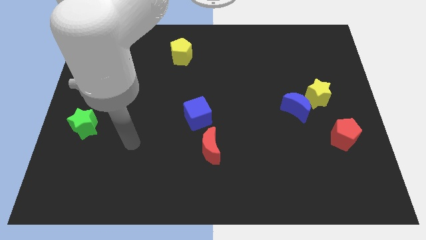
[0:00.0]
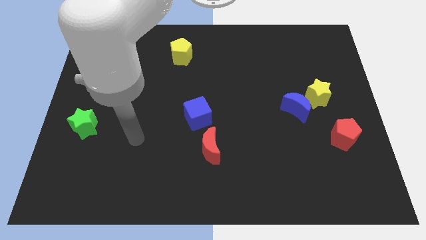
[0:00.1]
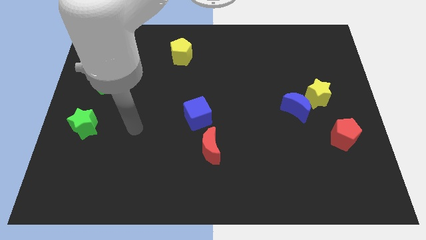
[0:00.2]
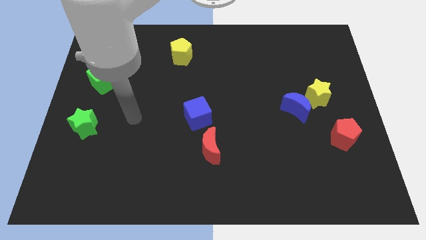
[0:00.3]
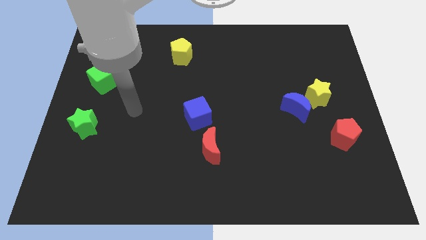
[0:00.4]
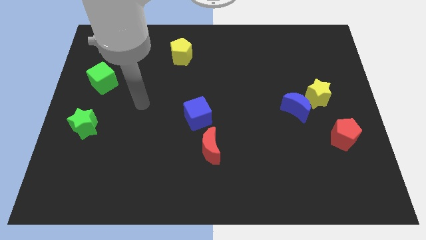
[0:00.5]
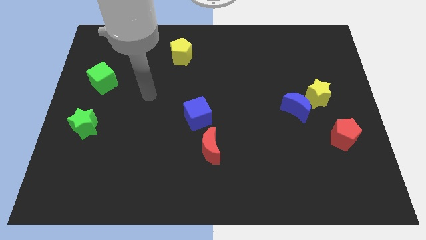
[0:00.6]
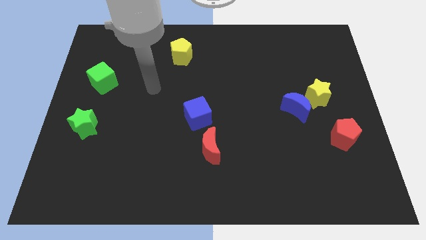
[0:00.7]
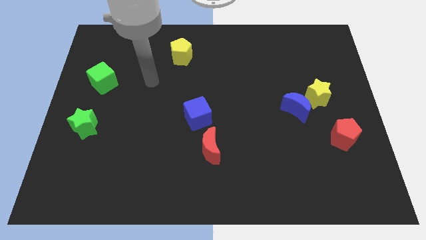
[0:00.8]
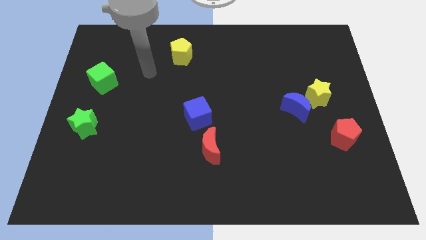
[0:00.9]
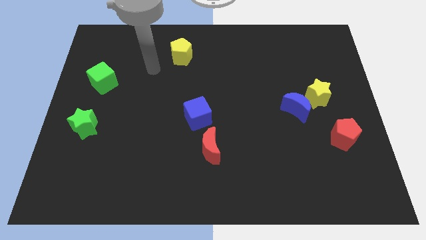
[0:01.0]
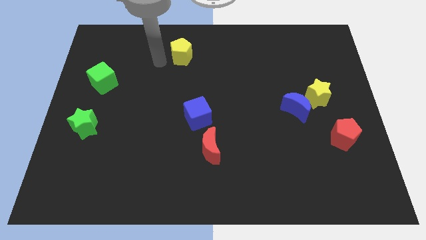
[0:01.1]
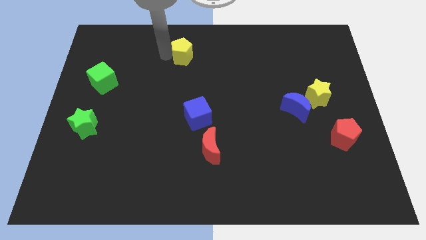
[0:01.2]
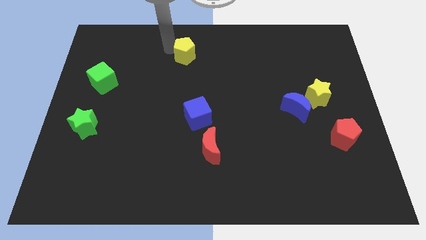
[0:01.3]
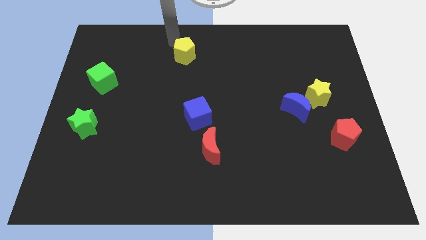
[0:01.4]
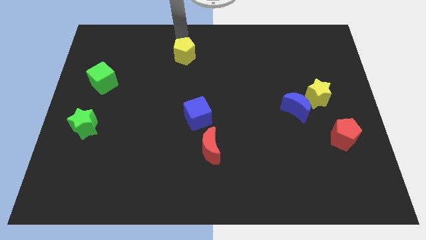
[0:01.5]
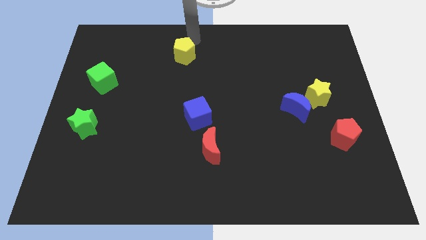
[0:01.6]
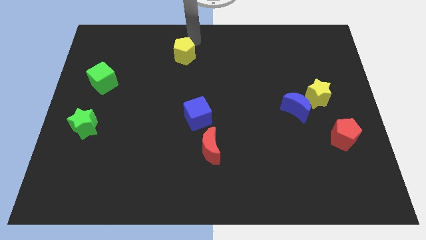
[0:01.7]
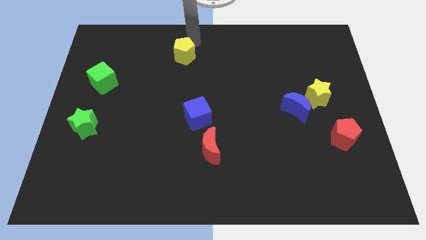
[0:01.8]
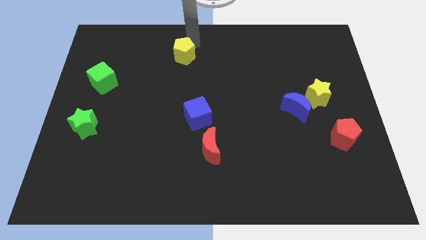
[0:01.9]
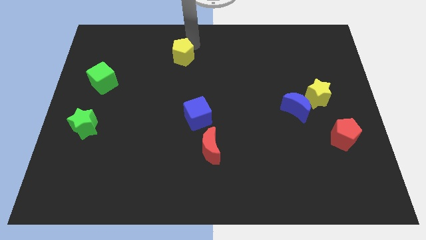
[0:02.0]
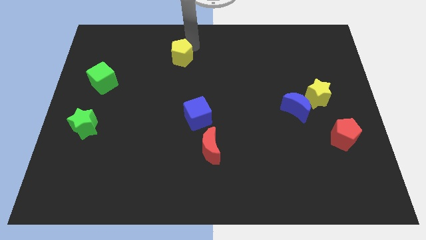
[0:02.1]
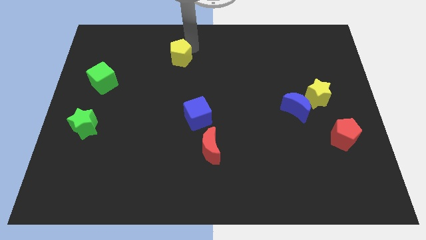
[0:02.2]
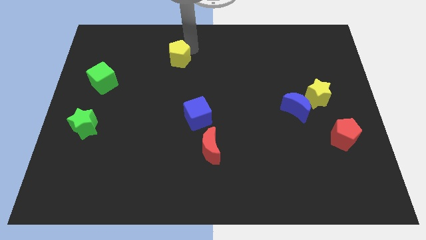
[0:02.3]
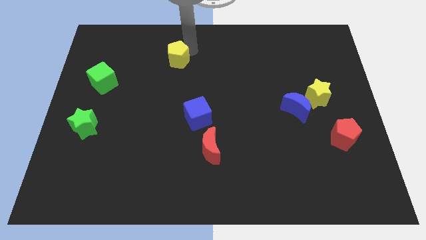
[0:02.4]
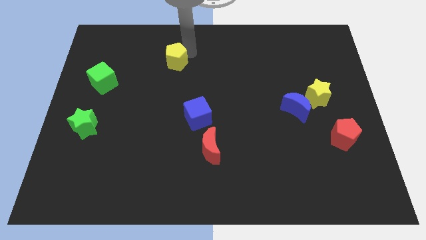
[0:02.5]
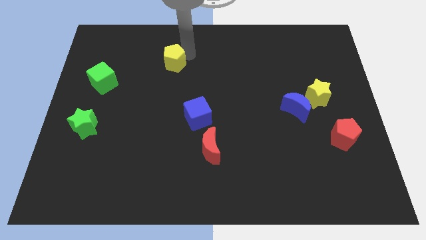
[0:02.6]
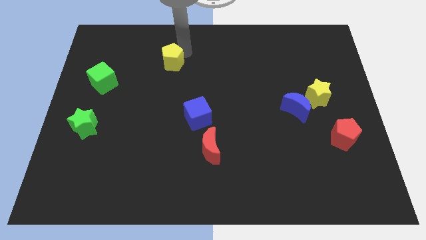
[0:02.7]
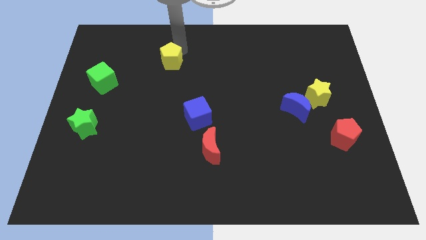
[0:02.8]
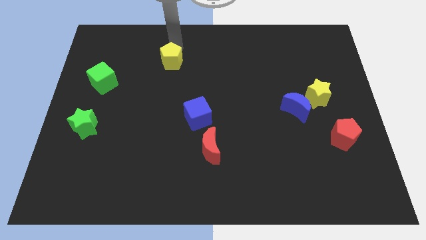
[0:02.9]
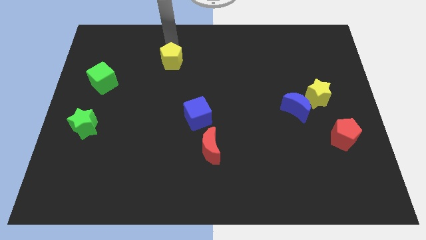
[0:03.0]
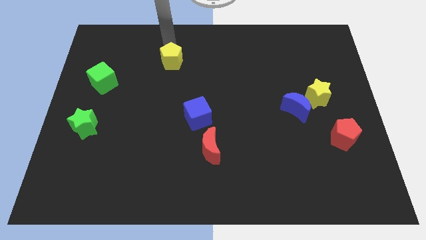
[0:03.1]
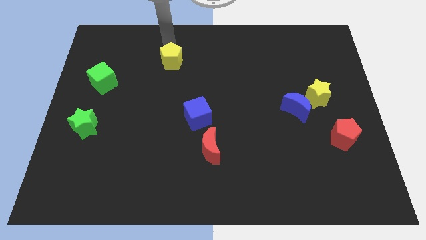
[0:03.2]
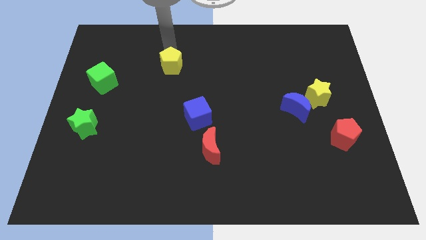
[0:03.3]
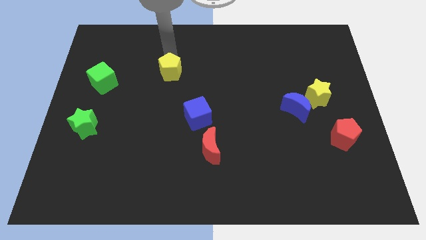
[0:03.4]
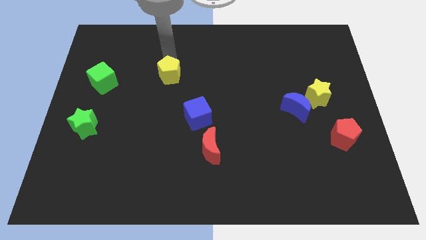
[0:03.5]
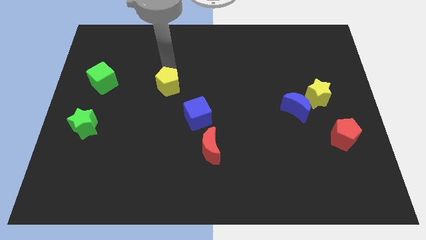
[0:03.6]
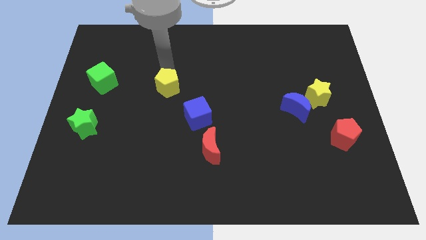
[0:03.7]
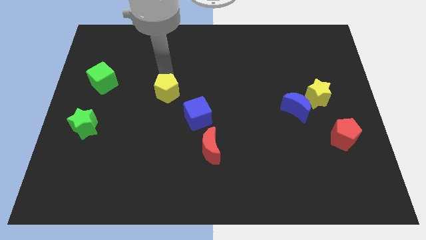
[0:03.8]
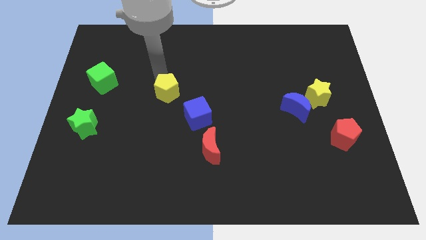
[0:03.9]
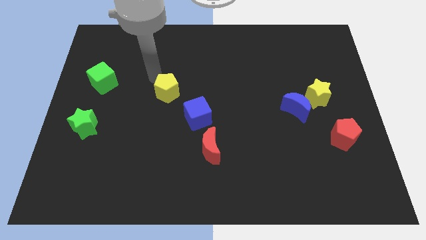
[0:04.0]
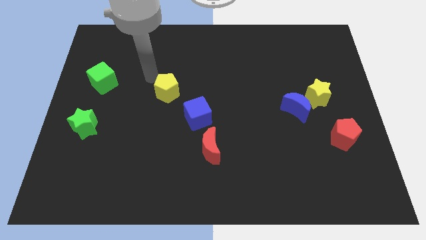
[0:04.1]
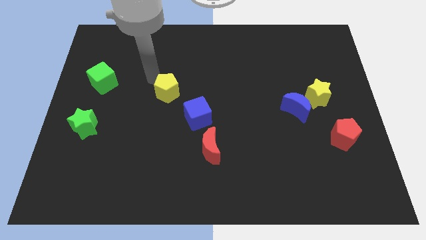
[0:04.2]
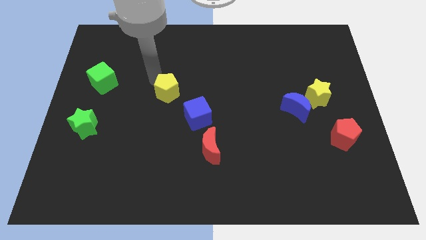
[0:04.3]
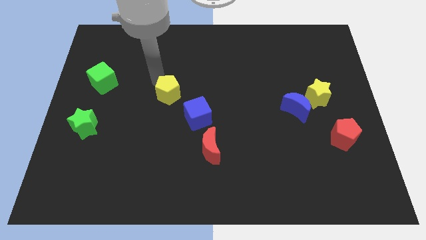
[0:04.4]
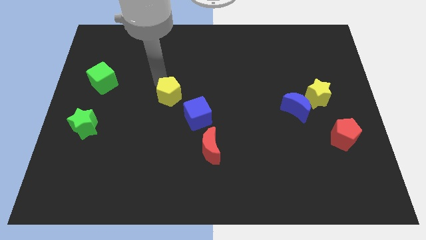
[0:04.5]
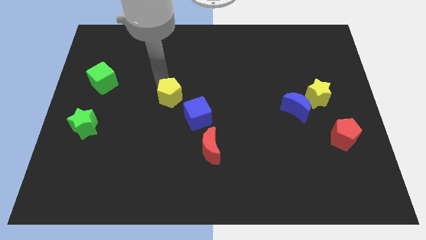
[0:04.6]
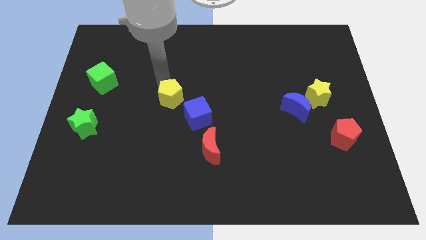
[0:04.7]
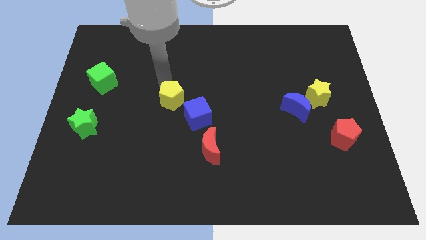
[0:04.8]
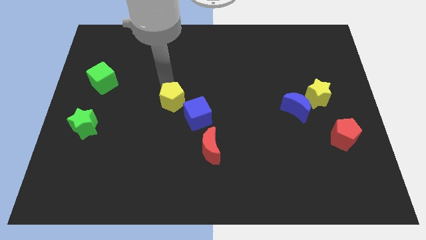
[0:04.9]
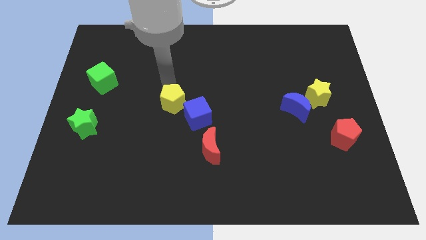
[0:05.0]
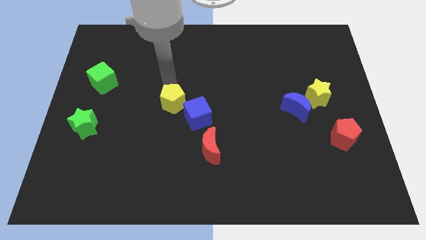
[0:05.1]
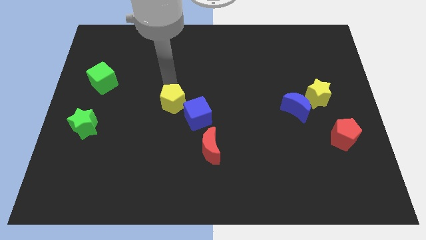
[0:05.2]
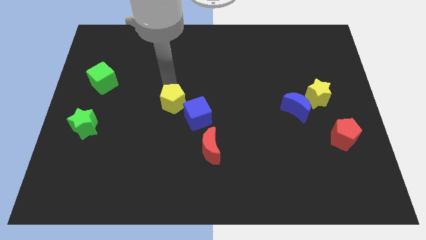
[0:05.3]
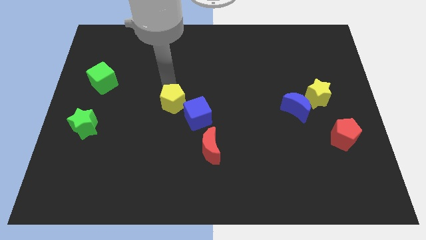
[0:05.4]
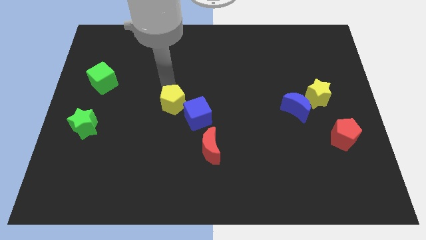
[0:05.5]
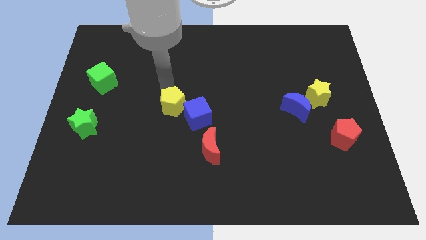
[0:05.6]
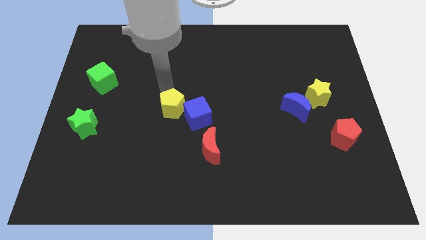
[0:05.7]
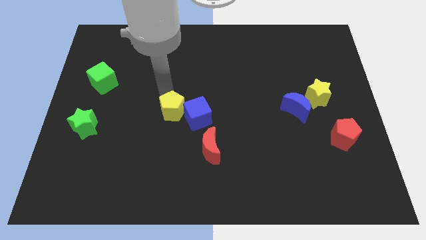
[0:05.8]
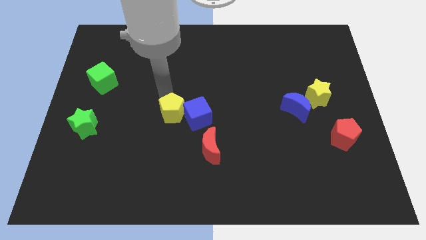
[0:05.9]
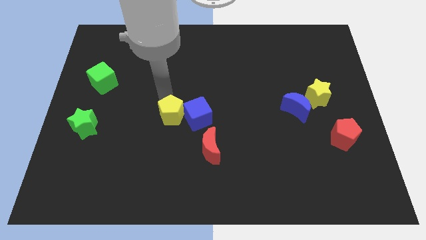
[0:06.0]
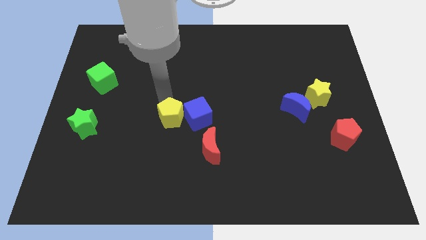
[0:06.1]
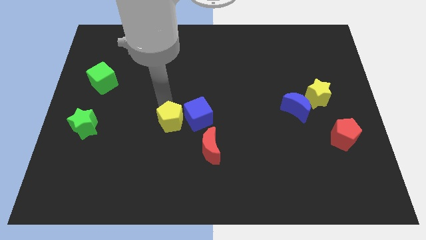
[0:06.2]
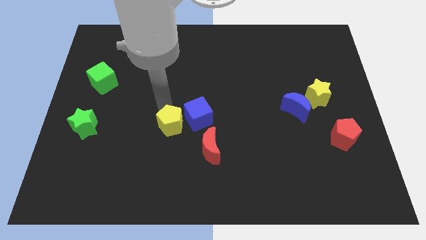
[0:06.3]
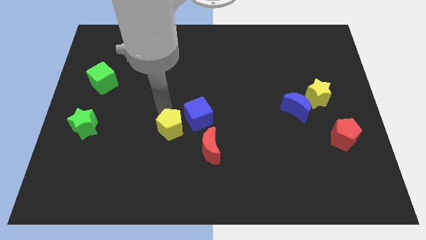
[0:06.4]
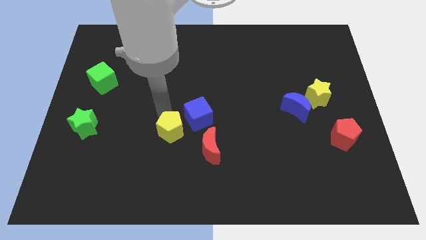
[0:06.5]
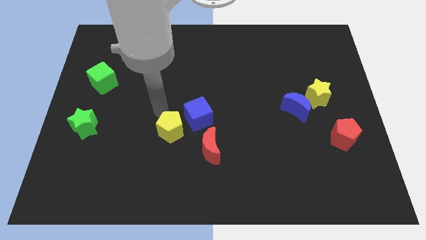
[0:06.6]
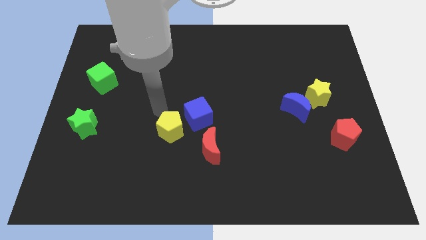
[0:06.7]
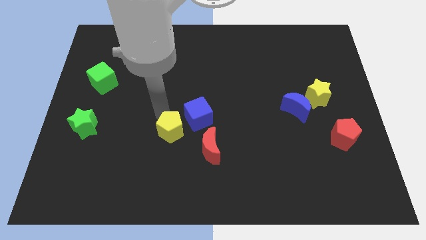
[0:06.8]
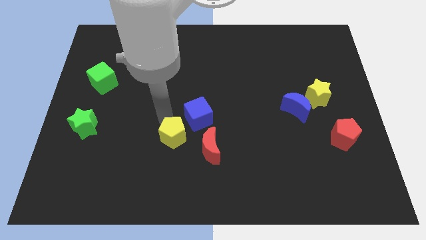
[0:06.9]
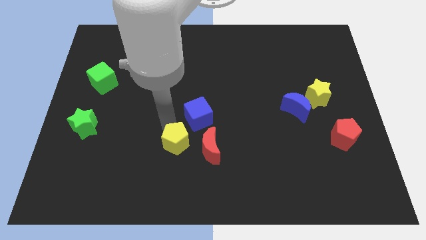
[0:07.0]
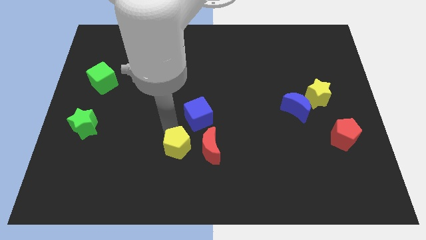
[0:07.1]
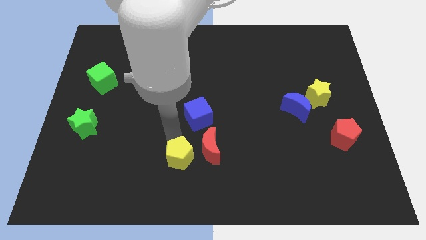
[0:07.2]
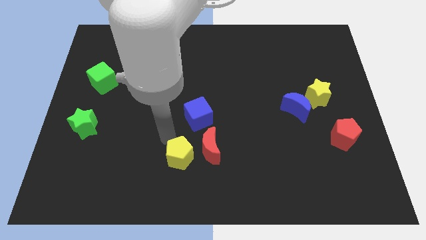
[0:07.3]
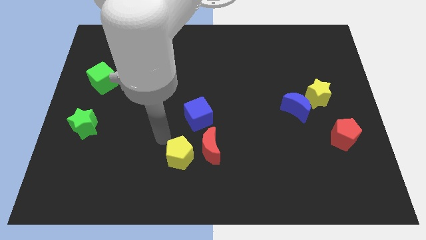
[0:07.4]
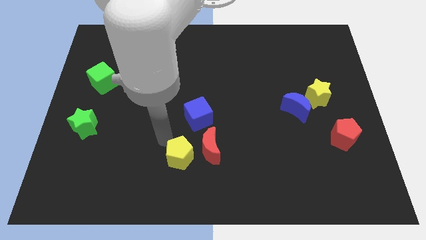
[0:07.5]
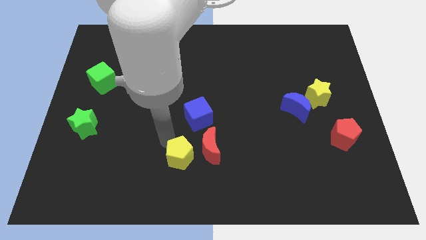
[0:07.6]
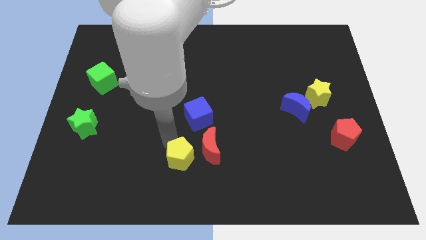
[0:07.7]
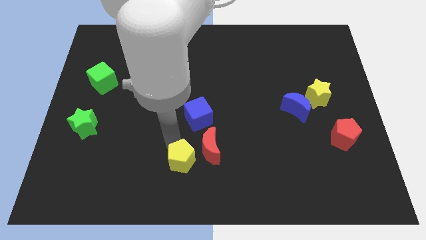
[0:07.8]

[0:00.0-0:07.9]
move the yellow pentagon to the bottom side
